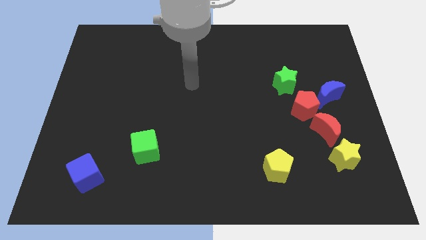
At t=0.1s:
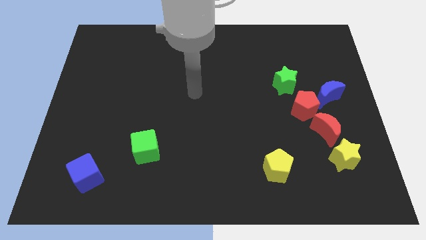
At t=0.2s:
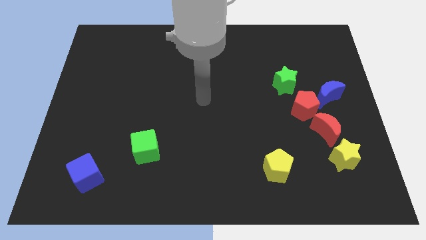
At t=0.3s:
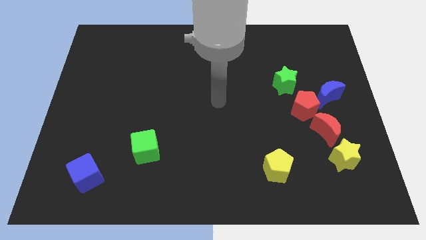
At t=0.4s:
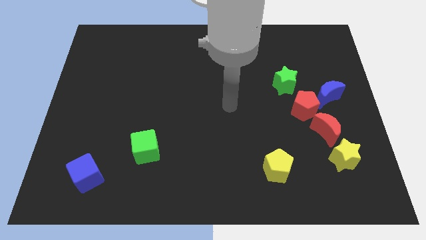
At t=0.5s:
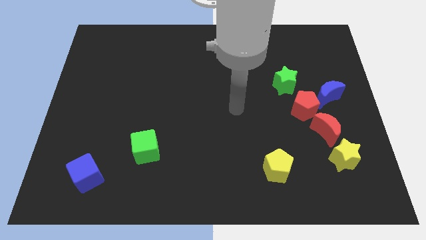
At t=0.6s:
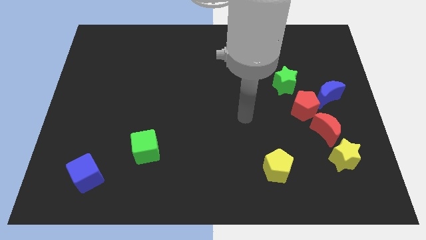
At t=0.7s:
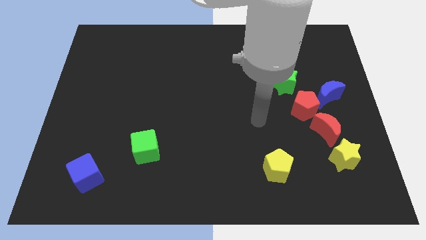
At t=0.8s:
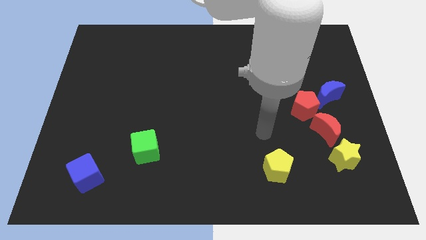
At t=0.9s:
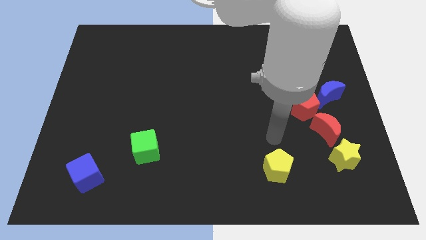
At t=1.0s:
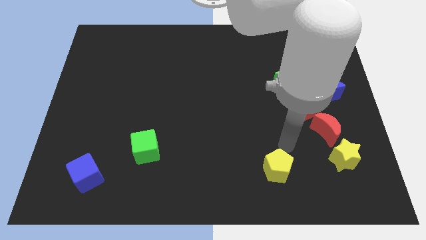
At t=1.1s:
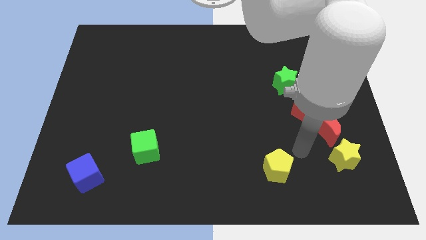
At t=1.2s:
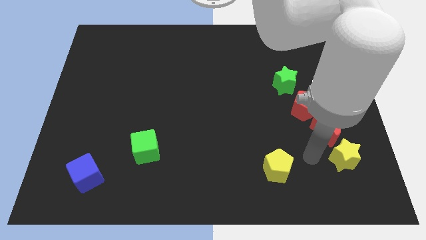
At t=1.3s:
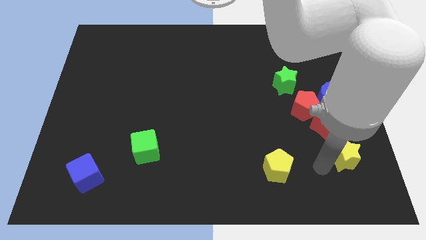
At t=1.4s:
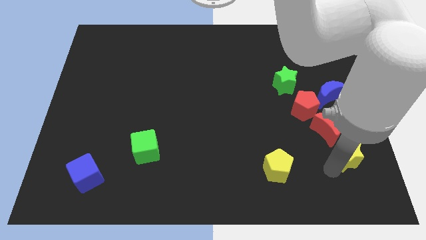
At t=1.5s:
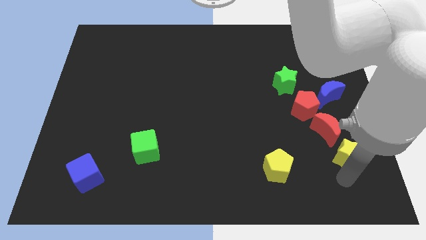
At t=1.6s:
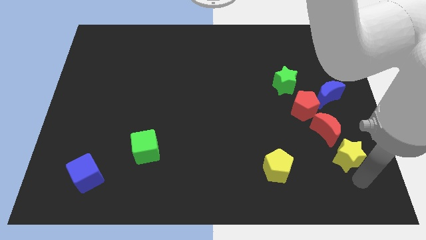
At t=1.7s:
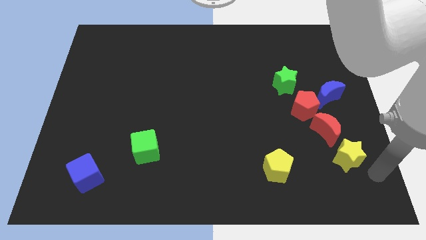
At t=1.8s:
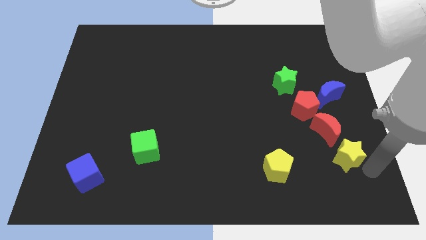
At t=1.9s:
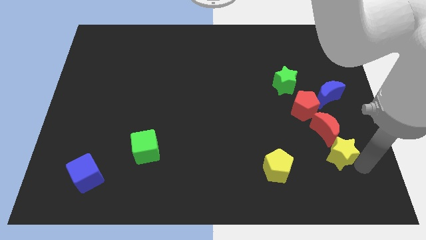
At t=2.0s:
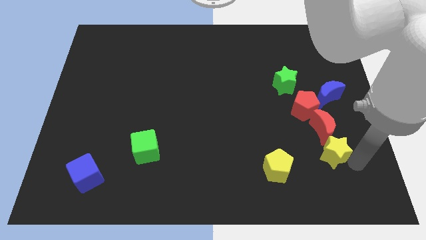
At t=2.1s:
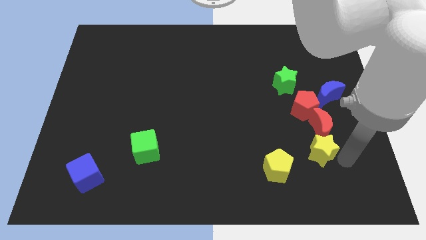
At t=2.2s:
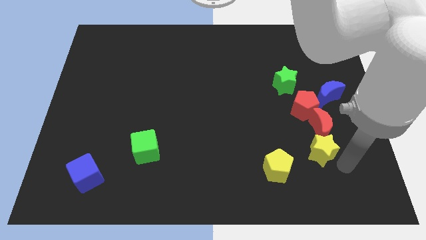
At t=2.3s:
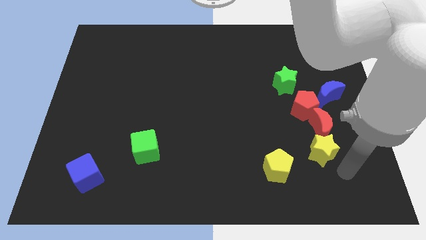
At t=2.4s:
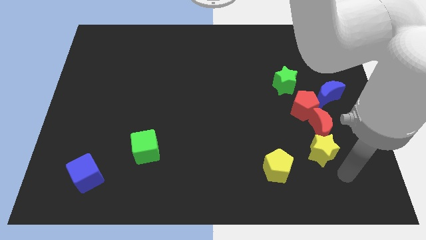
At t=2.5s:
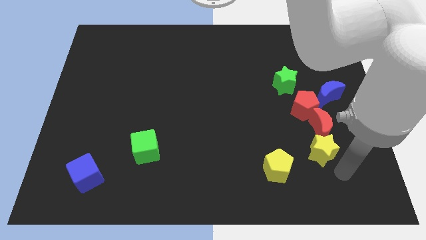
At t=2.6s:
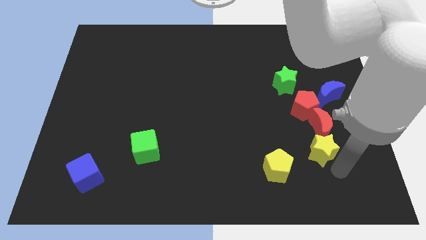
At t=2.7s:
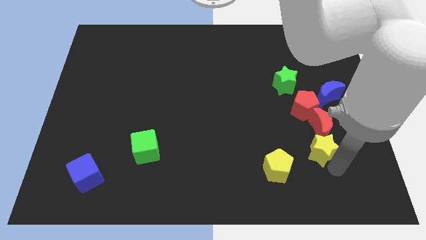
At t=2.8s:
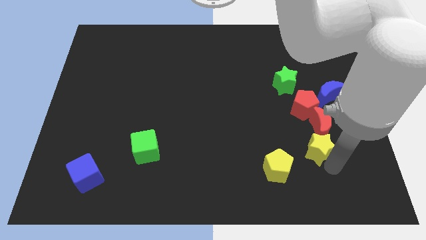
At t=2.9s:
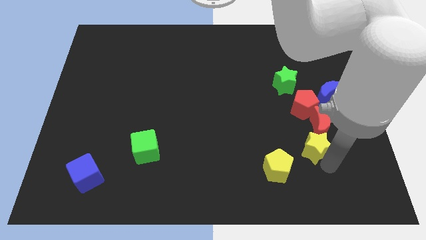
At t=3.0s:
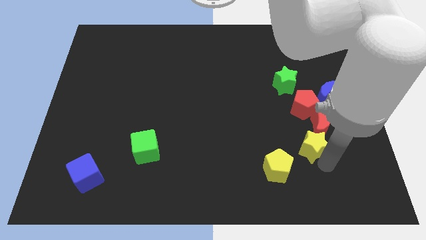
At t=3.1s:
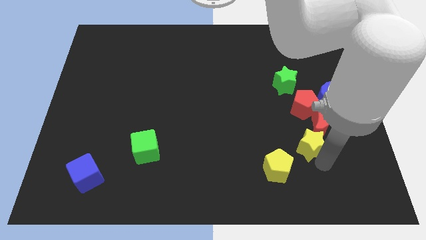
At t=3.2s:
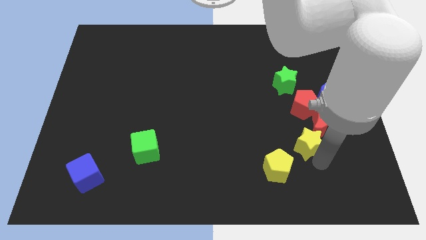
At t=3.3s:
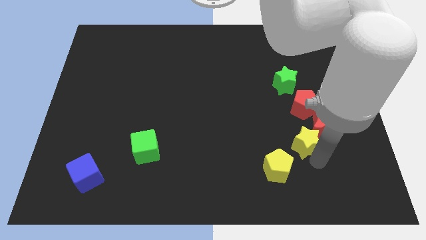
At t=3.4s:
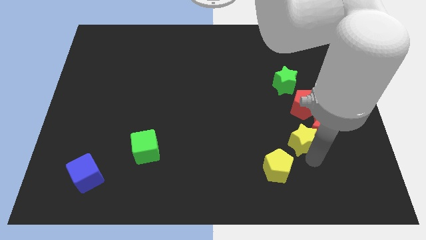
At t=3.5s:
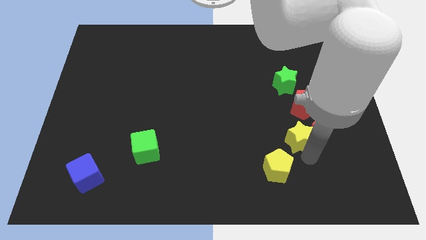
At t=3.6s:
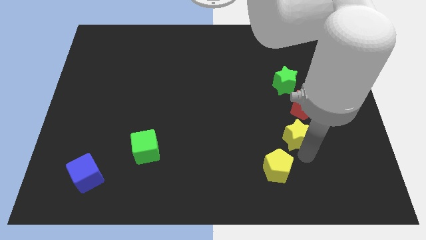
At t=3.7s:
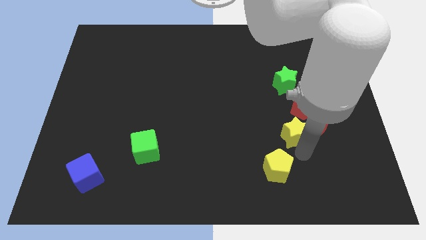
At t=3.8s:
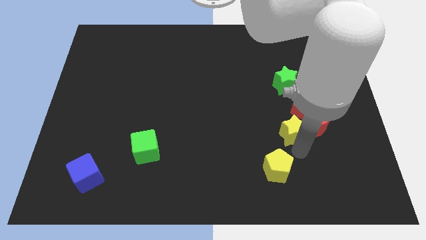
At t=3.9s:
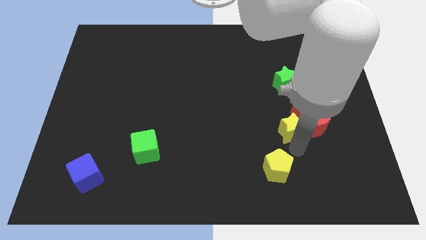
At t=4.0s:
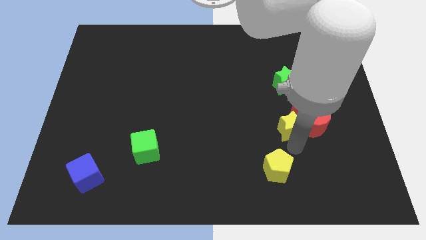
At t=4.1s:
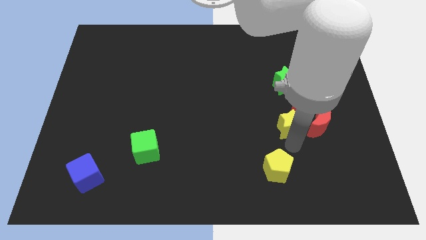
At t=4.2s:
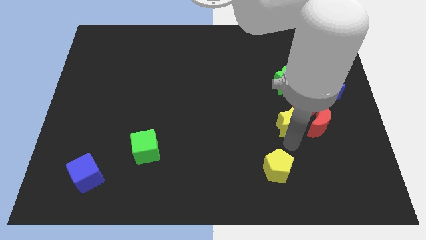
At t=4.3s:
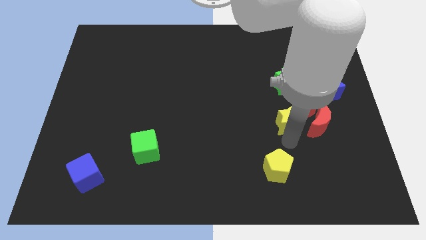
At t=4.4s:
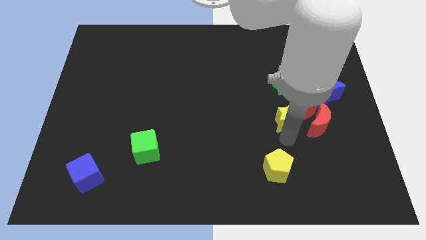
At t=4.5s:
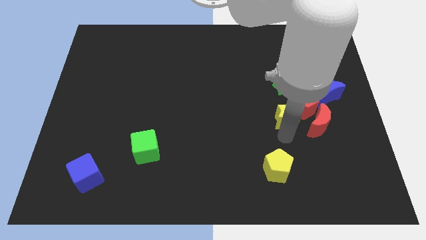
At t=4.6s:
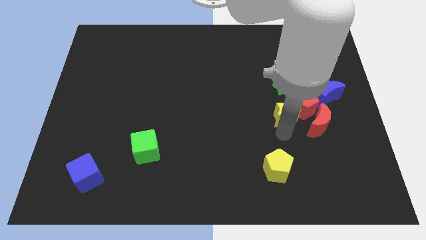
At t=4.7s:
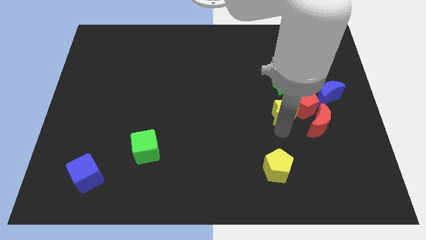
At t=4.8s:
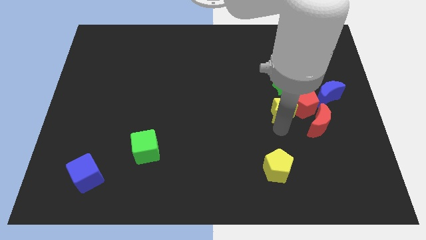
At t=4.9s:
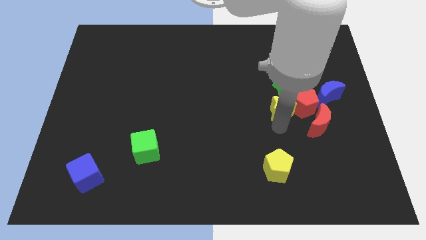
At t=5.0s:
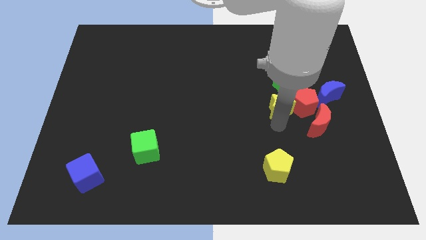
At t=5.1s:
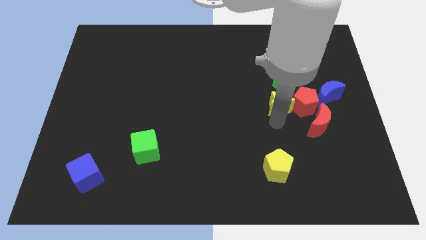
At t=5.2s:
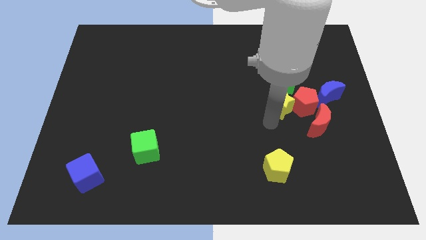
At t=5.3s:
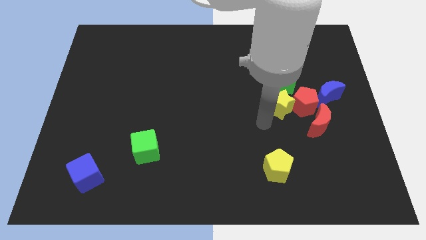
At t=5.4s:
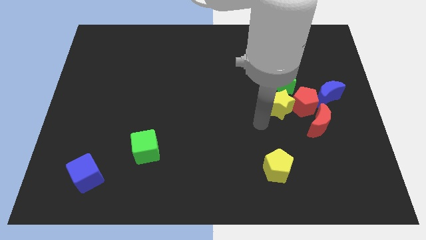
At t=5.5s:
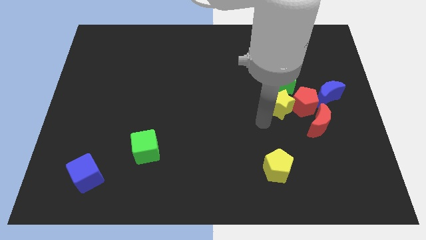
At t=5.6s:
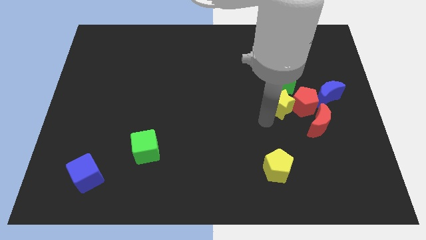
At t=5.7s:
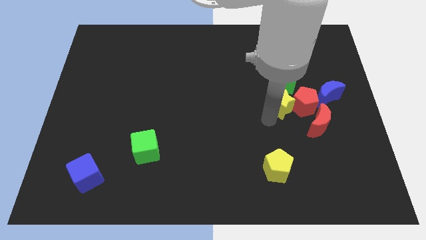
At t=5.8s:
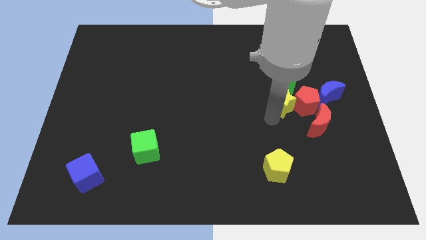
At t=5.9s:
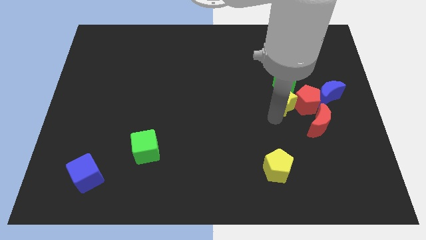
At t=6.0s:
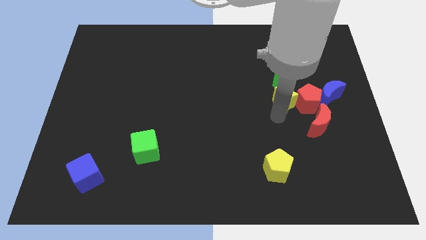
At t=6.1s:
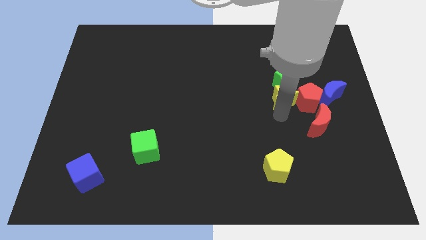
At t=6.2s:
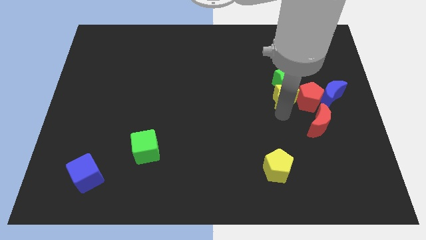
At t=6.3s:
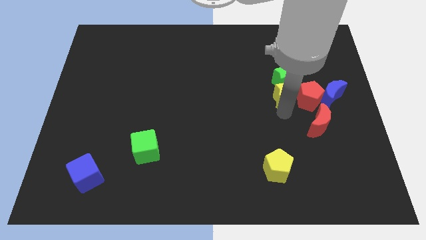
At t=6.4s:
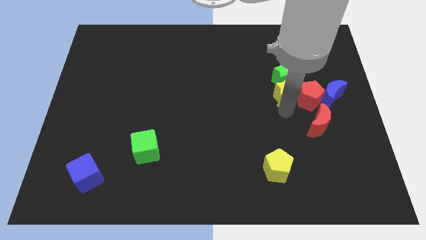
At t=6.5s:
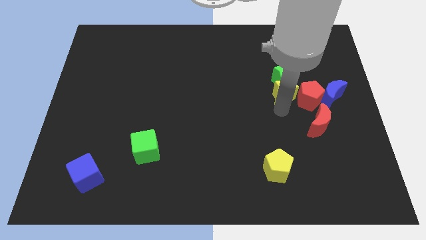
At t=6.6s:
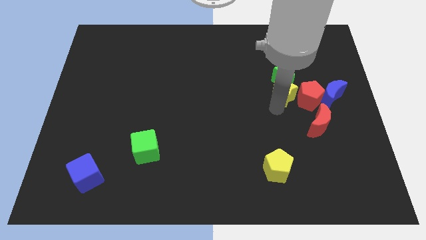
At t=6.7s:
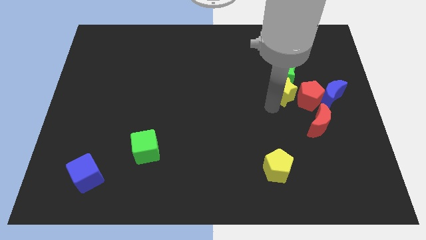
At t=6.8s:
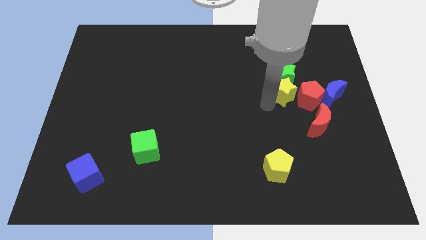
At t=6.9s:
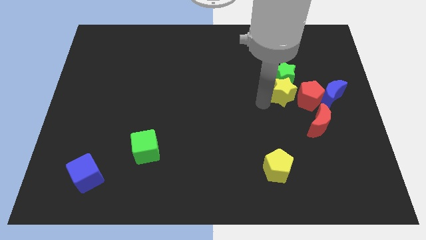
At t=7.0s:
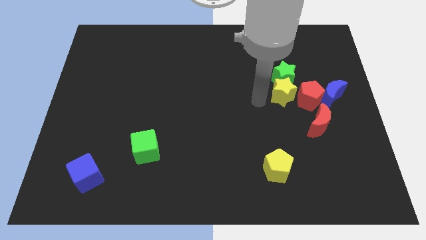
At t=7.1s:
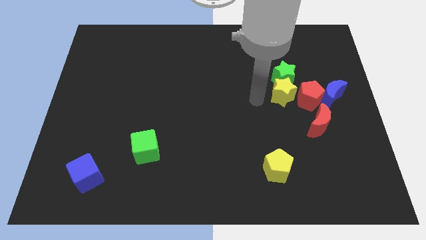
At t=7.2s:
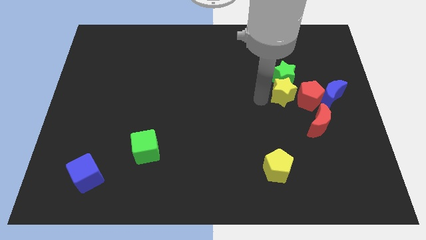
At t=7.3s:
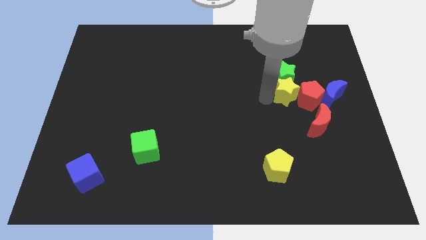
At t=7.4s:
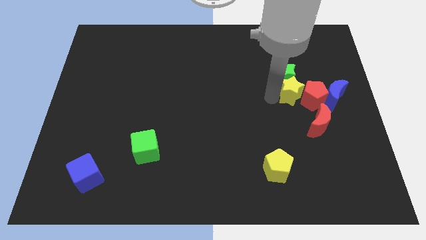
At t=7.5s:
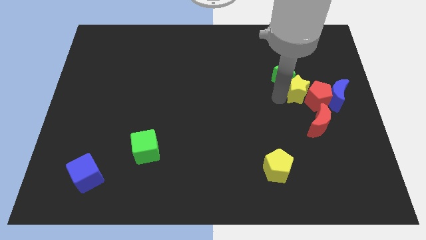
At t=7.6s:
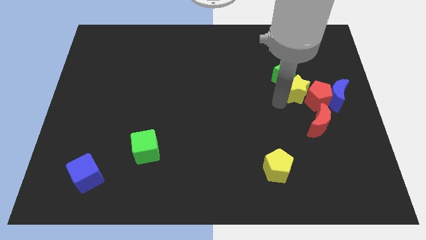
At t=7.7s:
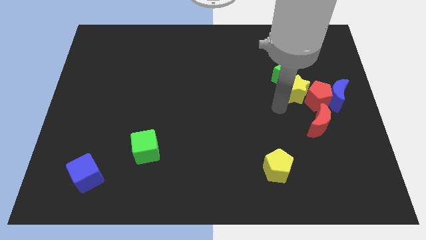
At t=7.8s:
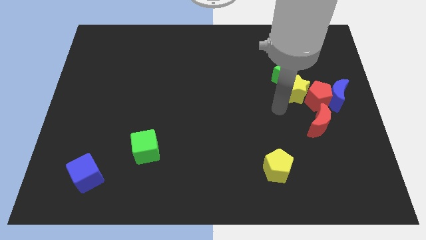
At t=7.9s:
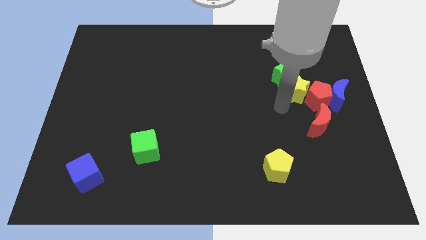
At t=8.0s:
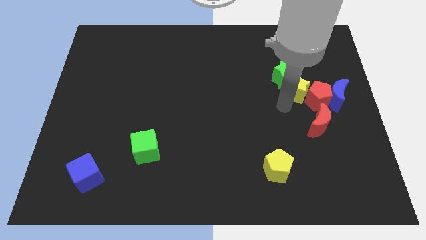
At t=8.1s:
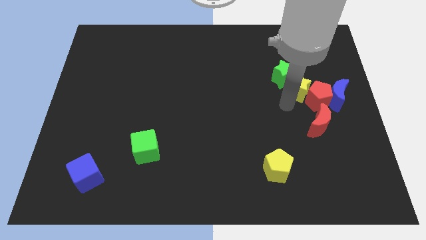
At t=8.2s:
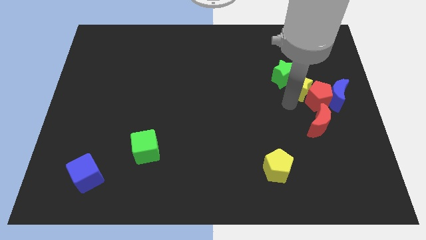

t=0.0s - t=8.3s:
slide the yellow star to the top left side of the blue moon
